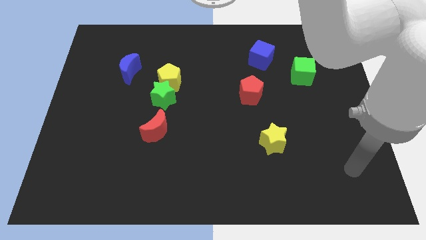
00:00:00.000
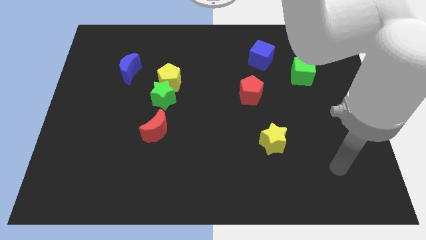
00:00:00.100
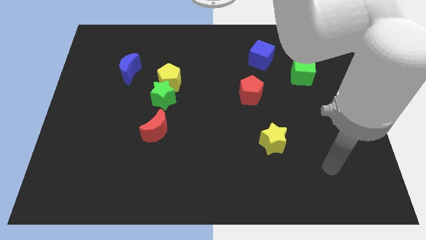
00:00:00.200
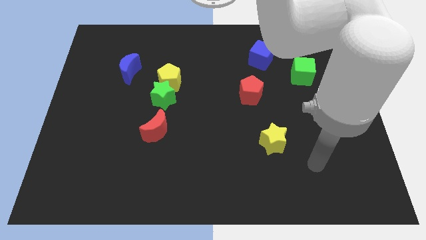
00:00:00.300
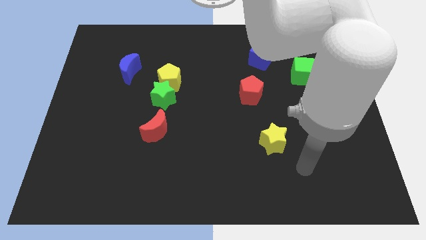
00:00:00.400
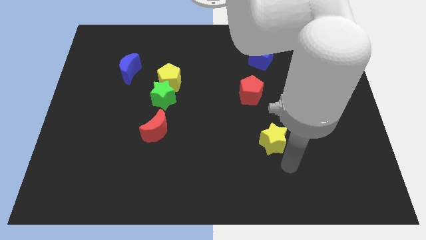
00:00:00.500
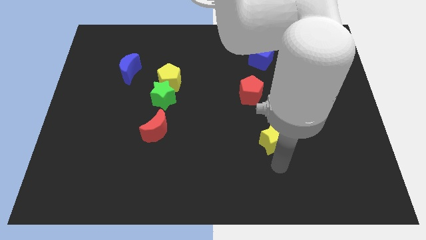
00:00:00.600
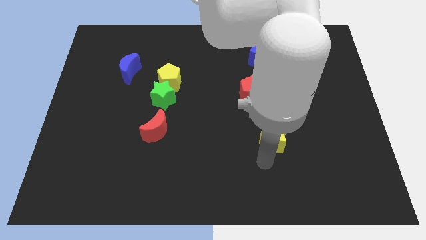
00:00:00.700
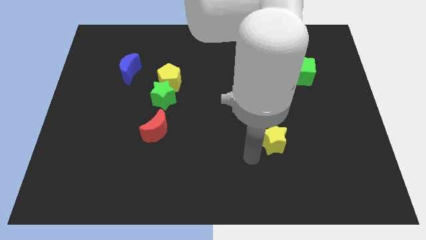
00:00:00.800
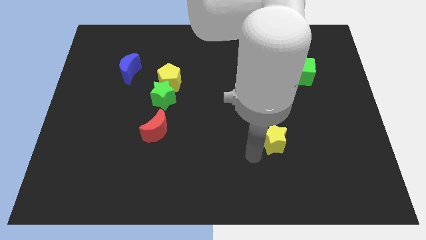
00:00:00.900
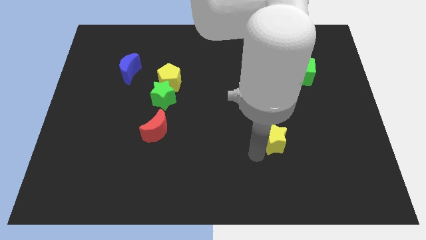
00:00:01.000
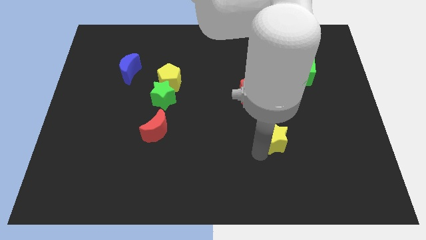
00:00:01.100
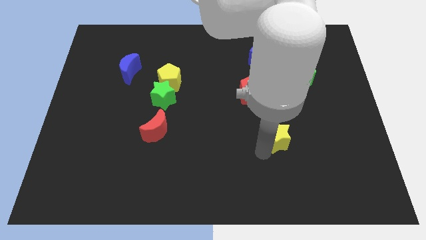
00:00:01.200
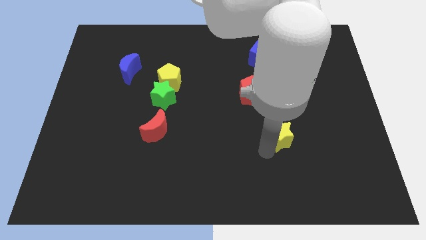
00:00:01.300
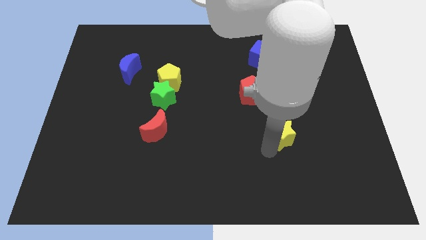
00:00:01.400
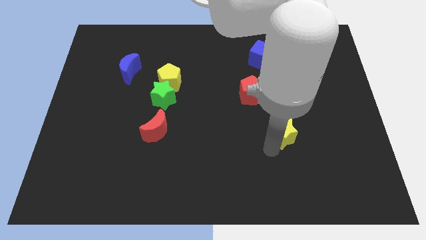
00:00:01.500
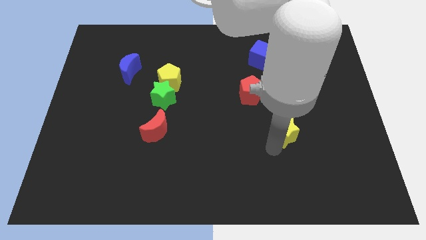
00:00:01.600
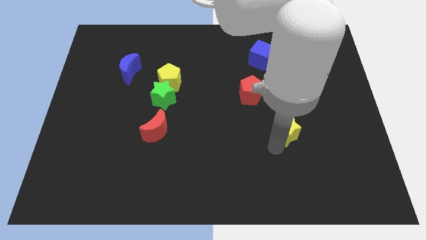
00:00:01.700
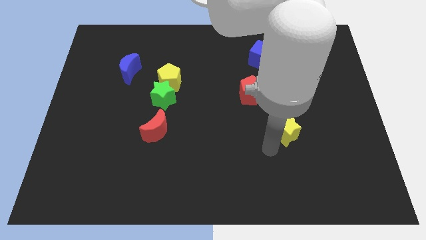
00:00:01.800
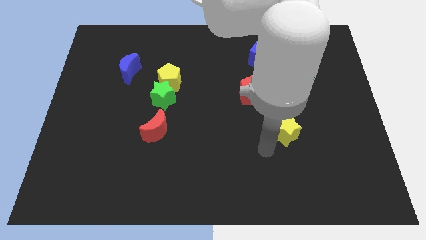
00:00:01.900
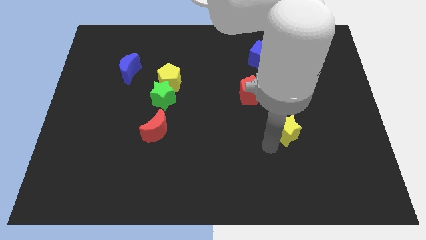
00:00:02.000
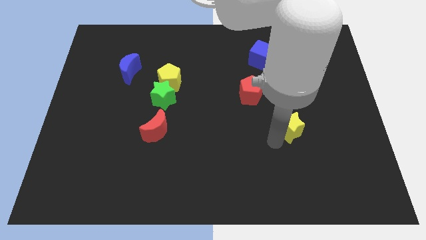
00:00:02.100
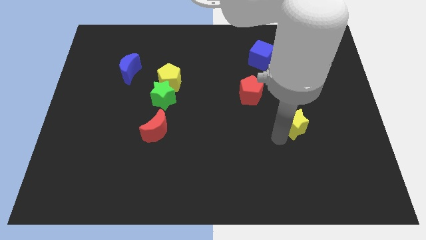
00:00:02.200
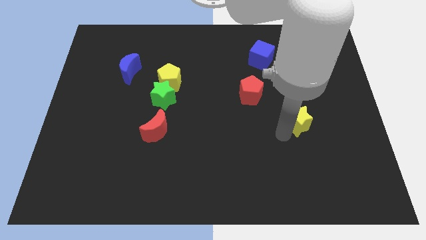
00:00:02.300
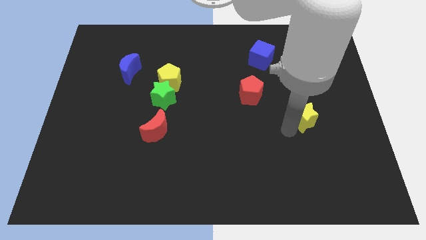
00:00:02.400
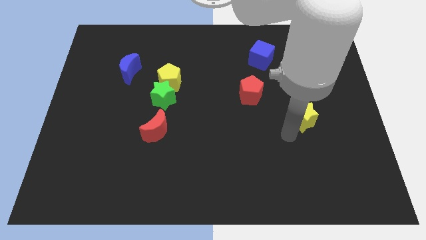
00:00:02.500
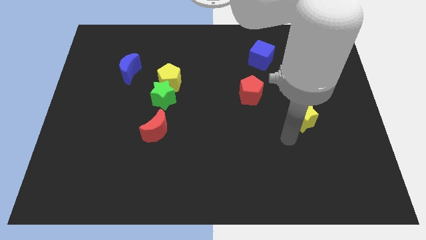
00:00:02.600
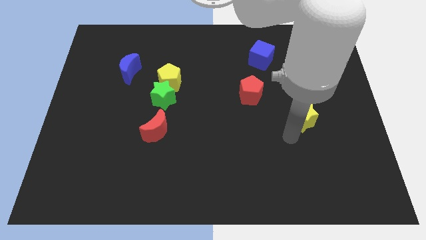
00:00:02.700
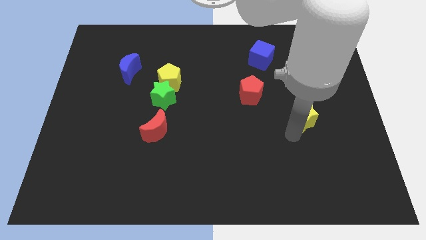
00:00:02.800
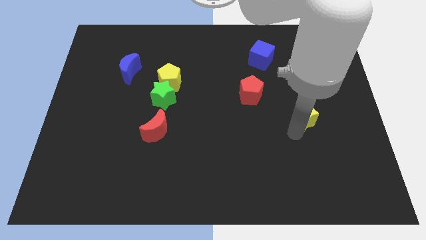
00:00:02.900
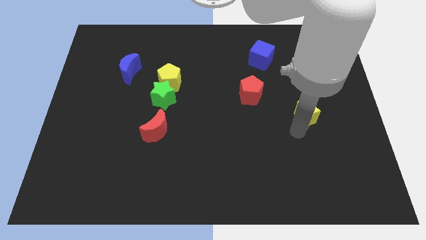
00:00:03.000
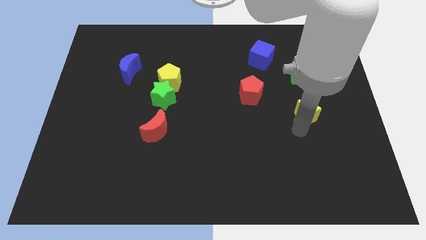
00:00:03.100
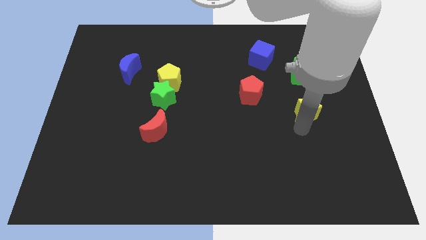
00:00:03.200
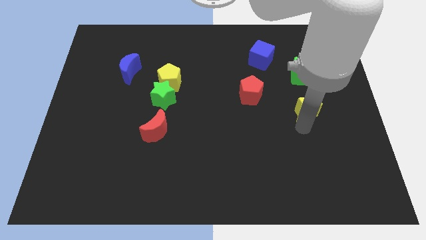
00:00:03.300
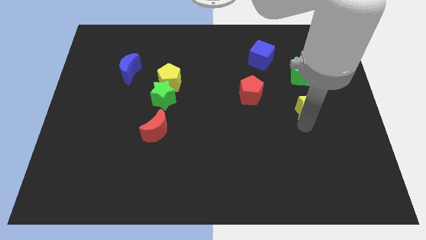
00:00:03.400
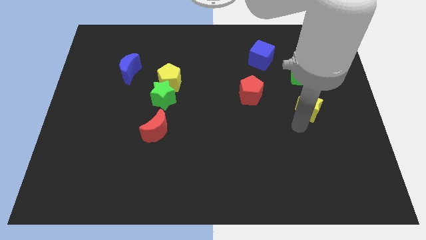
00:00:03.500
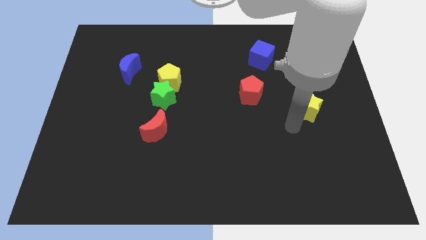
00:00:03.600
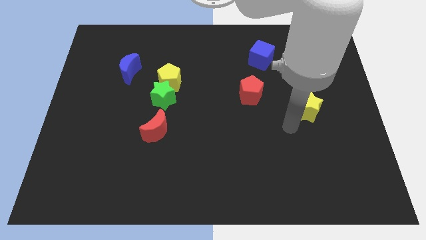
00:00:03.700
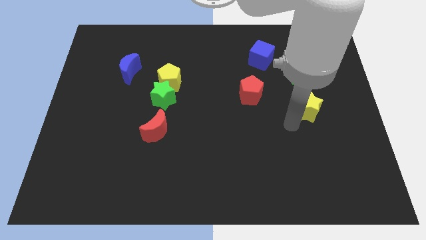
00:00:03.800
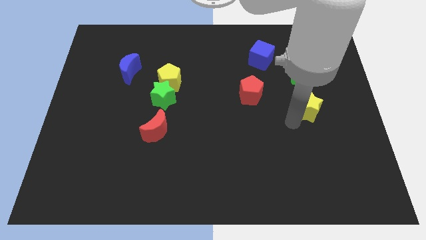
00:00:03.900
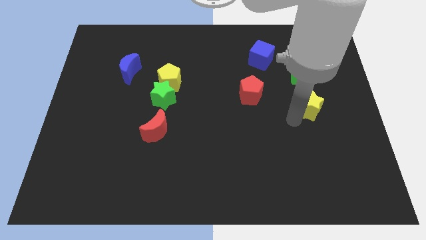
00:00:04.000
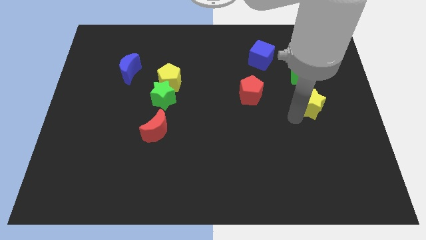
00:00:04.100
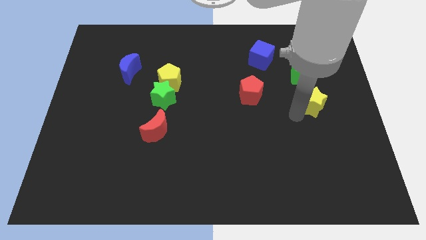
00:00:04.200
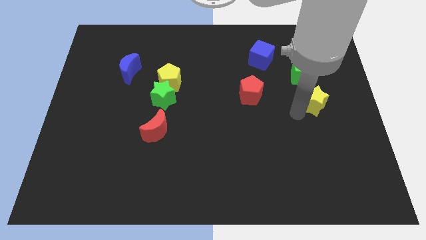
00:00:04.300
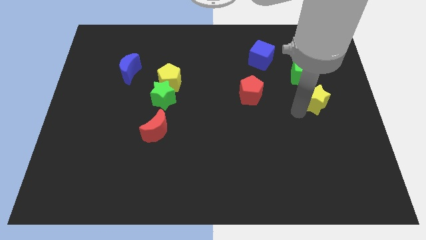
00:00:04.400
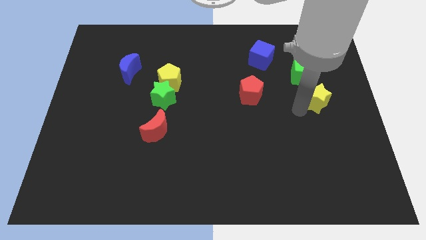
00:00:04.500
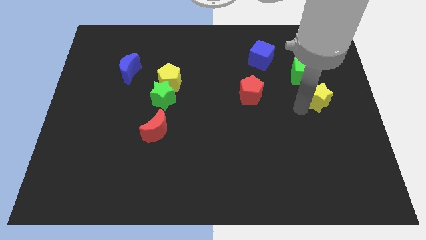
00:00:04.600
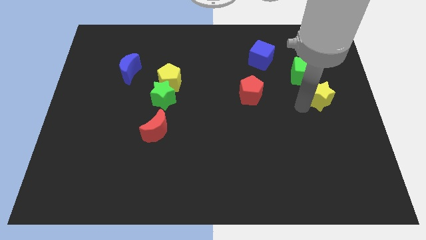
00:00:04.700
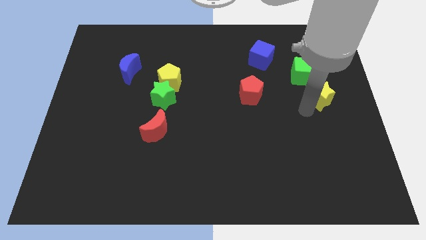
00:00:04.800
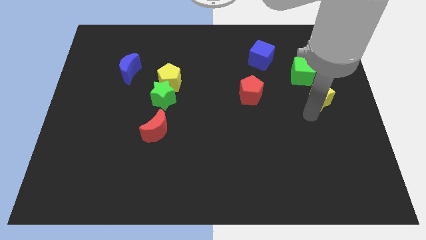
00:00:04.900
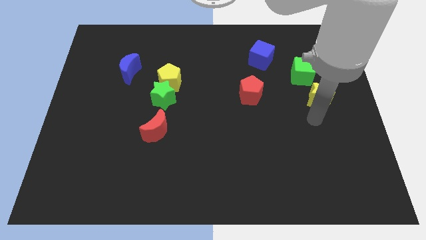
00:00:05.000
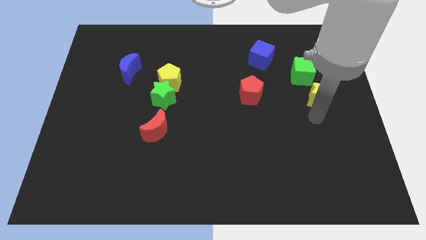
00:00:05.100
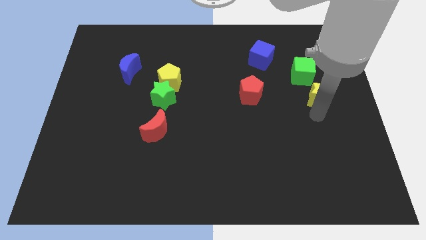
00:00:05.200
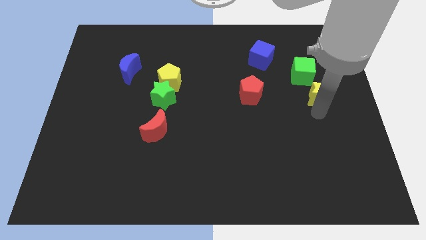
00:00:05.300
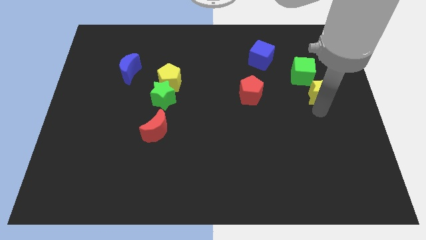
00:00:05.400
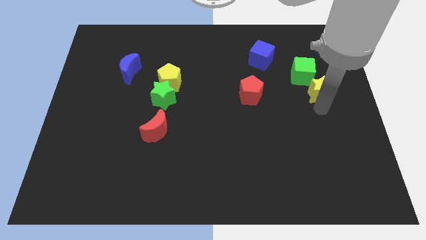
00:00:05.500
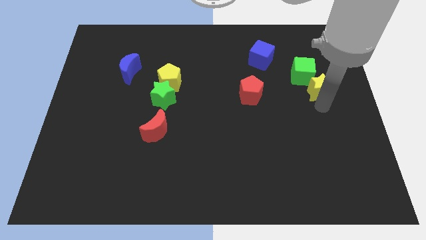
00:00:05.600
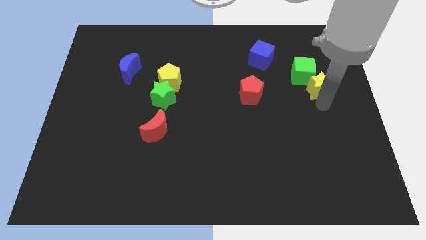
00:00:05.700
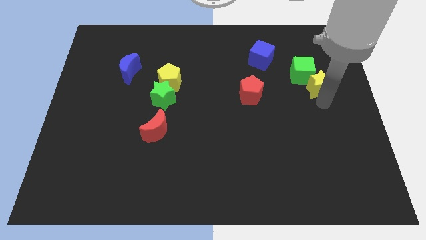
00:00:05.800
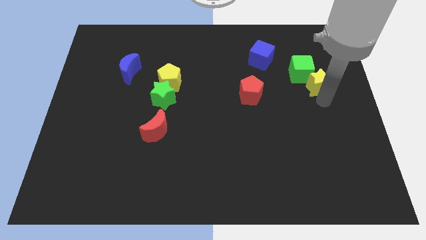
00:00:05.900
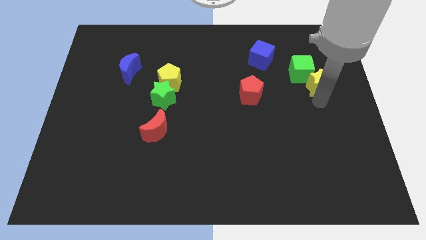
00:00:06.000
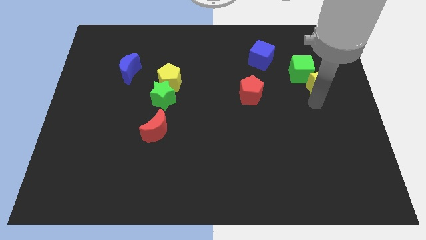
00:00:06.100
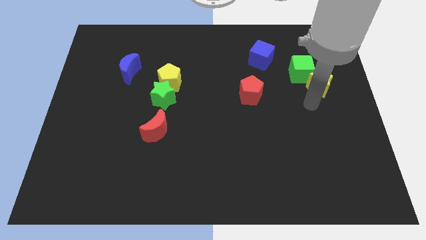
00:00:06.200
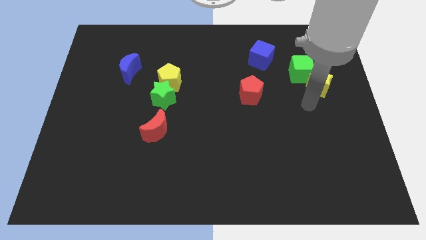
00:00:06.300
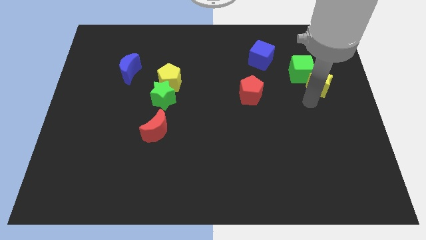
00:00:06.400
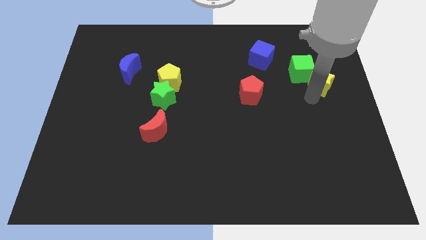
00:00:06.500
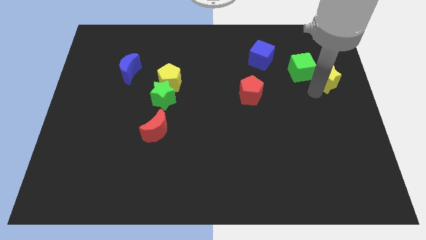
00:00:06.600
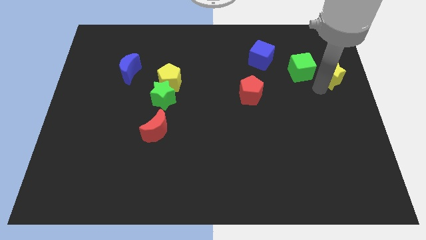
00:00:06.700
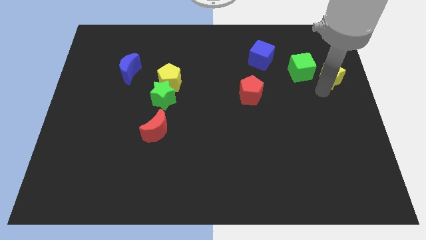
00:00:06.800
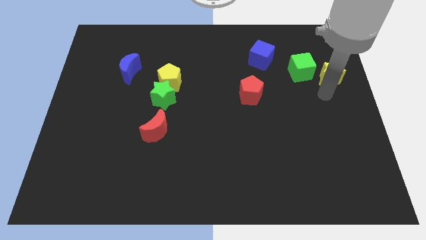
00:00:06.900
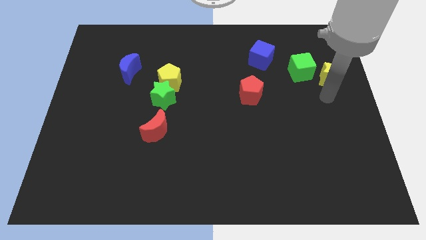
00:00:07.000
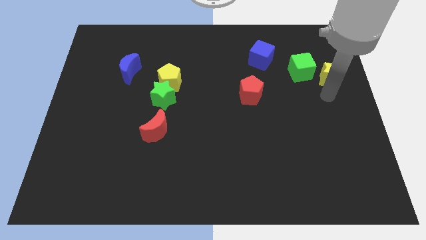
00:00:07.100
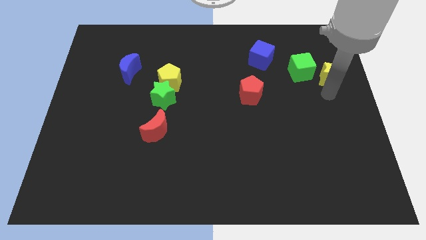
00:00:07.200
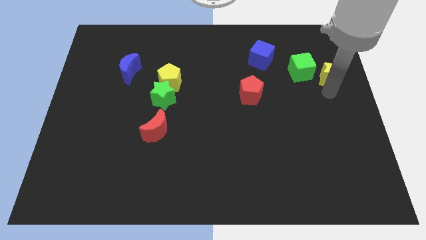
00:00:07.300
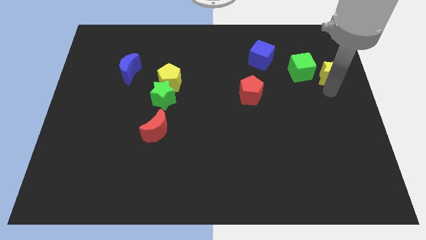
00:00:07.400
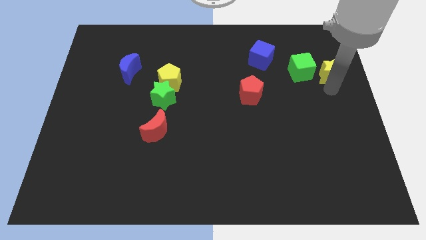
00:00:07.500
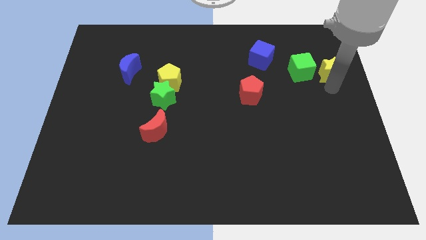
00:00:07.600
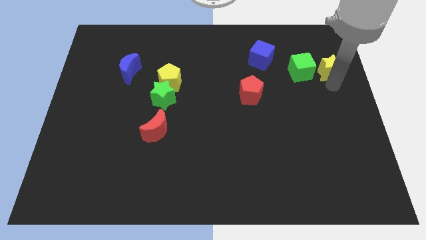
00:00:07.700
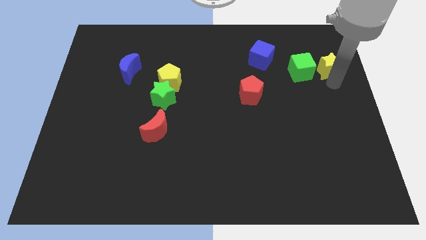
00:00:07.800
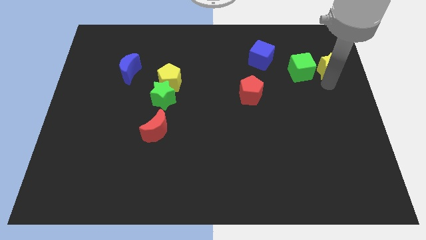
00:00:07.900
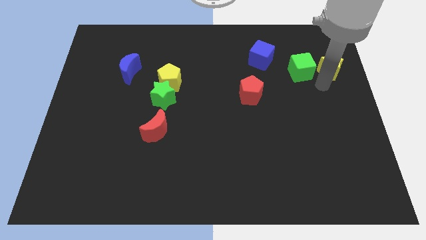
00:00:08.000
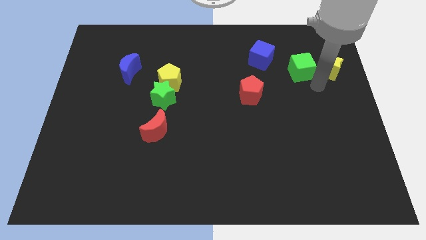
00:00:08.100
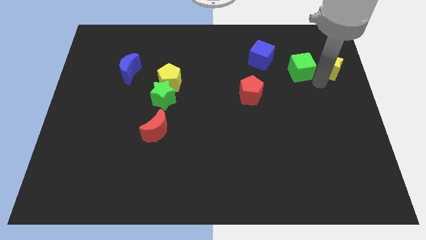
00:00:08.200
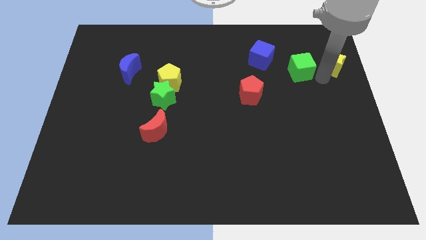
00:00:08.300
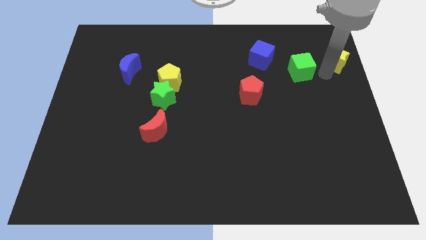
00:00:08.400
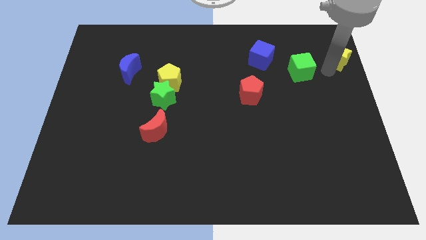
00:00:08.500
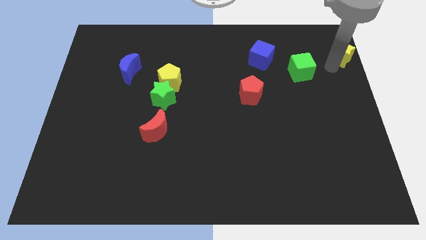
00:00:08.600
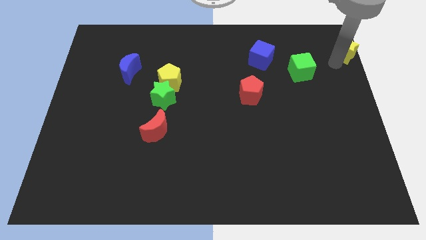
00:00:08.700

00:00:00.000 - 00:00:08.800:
slide the yellow star to the top right
